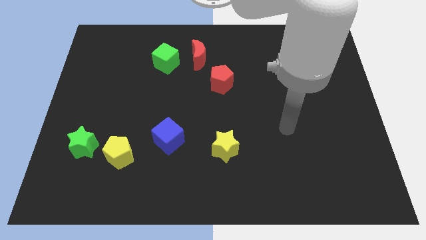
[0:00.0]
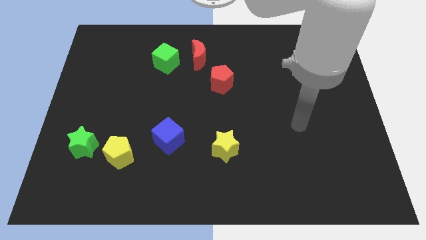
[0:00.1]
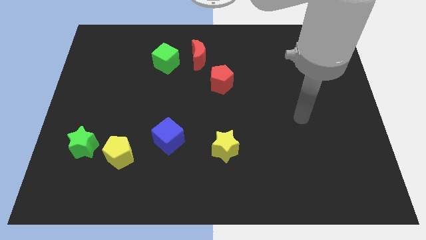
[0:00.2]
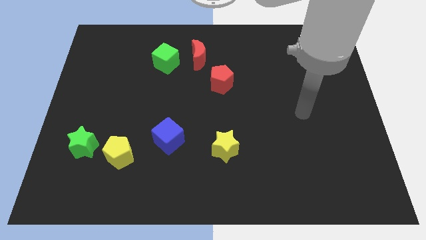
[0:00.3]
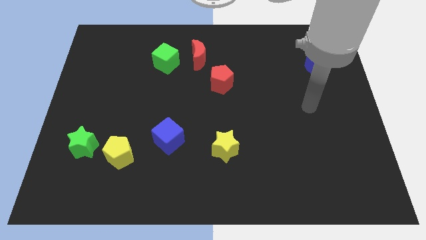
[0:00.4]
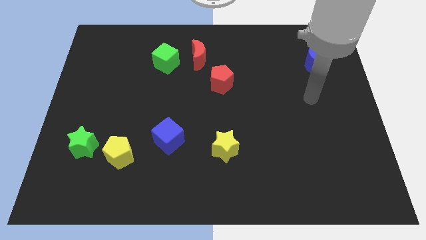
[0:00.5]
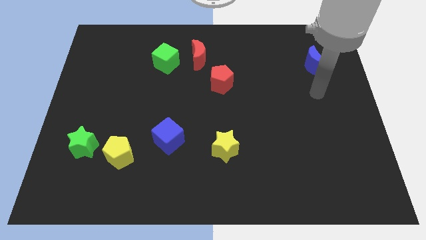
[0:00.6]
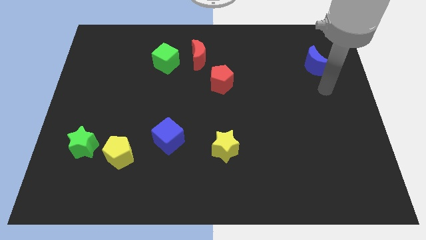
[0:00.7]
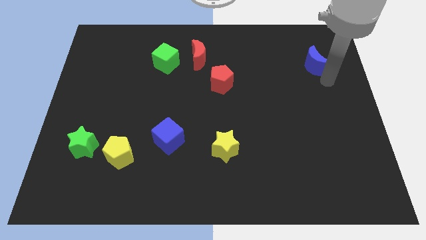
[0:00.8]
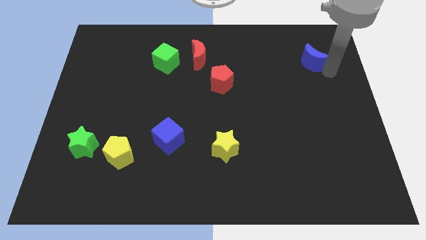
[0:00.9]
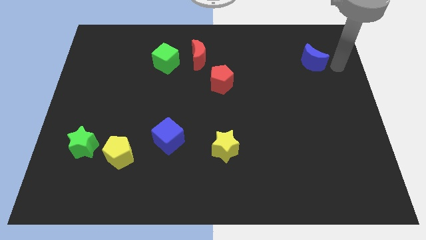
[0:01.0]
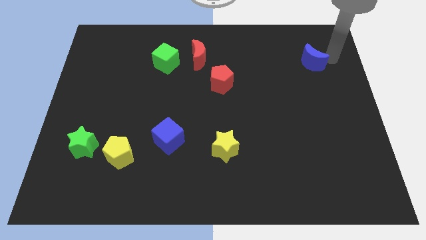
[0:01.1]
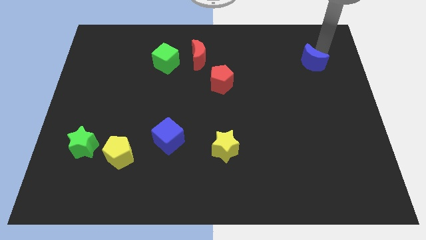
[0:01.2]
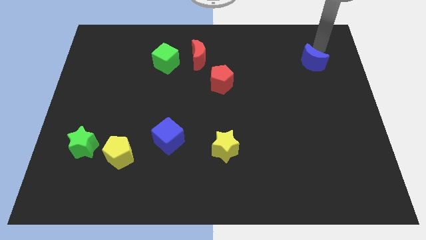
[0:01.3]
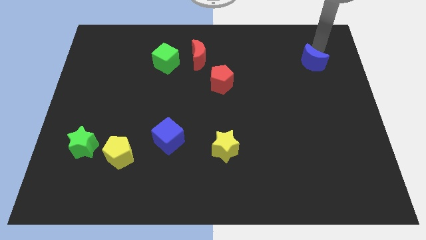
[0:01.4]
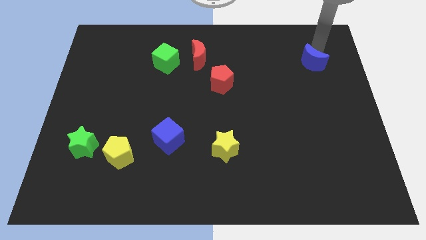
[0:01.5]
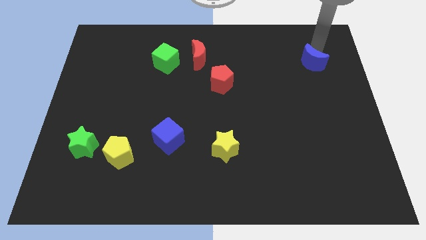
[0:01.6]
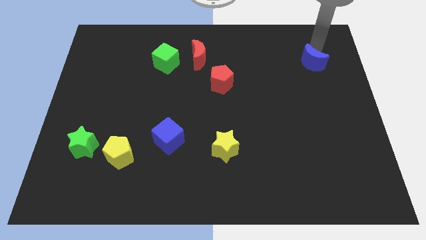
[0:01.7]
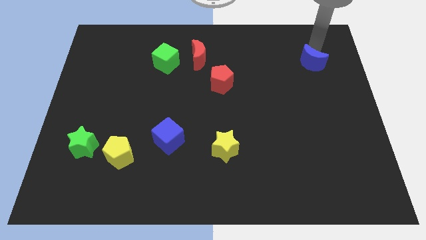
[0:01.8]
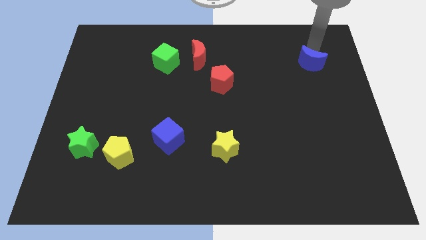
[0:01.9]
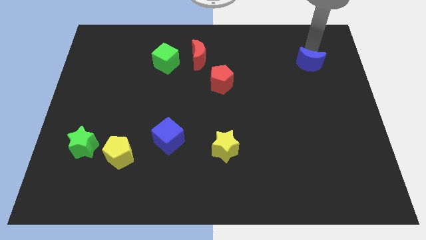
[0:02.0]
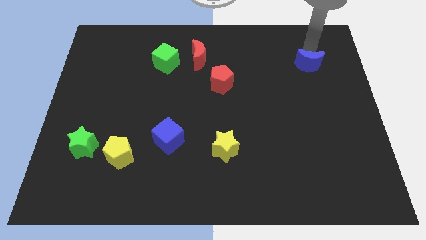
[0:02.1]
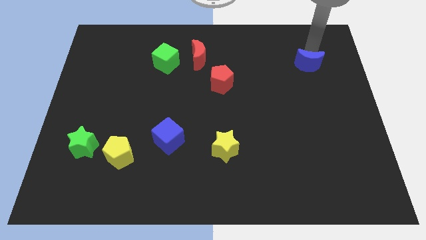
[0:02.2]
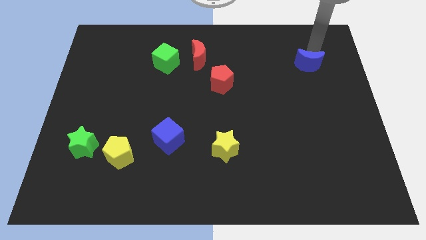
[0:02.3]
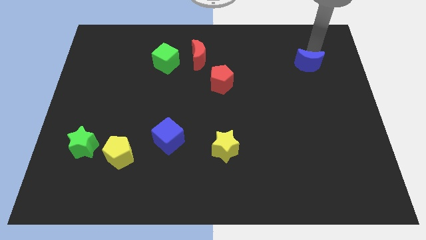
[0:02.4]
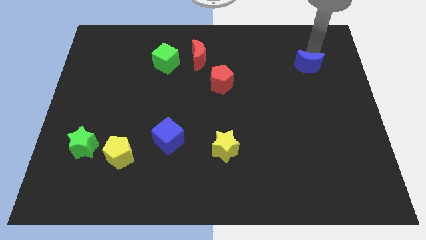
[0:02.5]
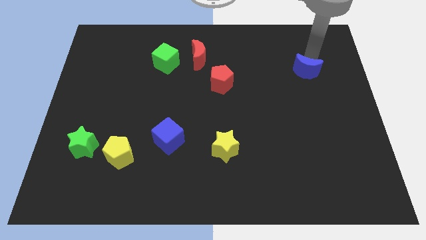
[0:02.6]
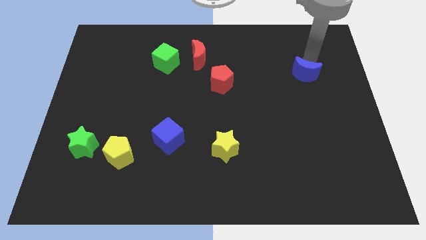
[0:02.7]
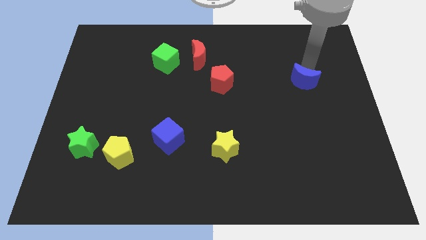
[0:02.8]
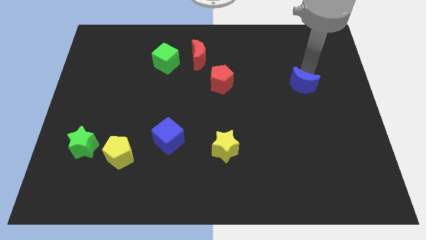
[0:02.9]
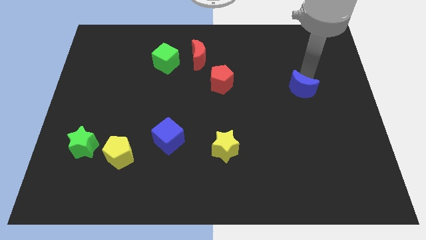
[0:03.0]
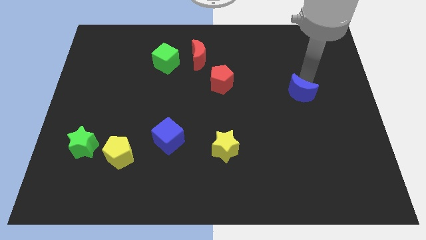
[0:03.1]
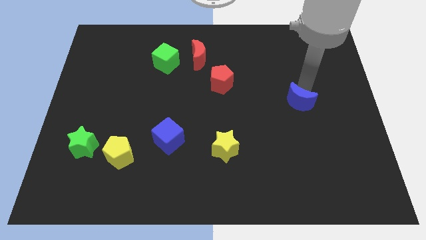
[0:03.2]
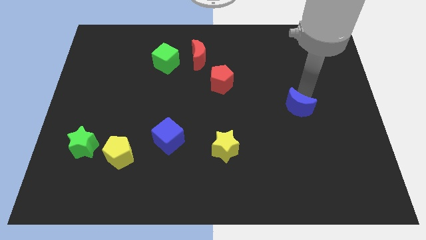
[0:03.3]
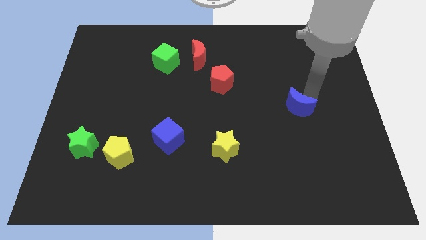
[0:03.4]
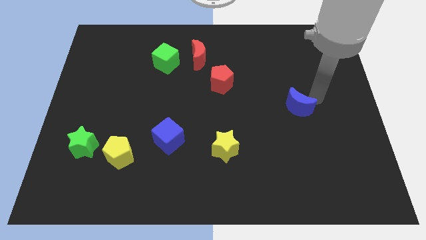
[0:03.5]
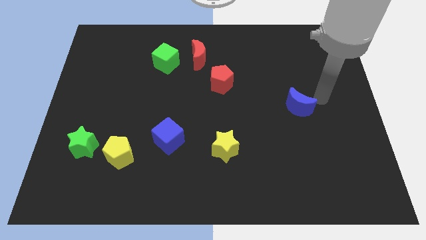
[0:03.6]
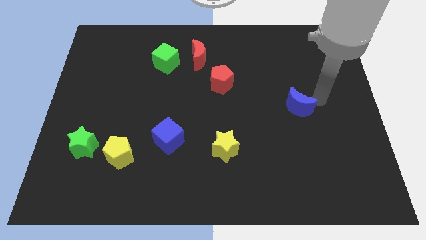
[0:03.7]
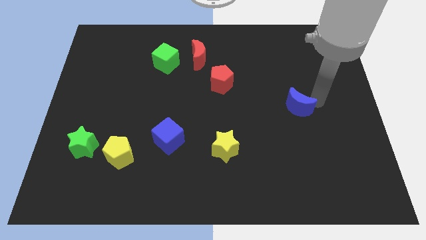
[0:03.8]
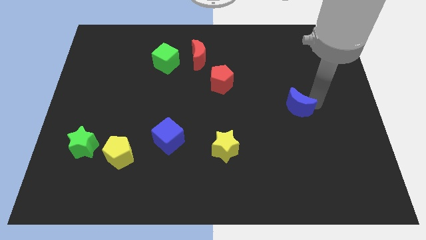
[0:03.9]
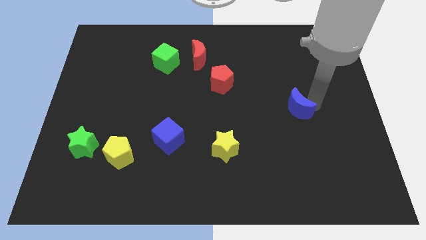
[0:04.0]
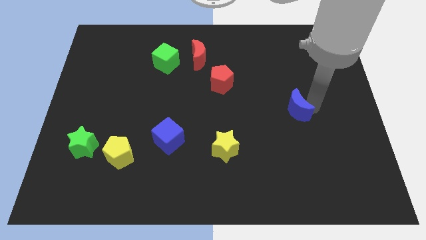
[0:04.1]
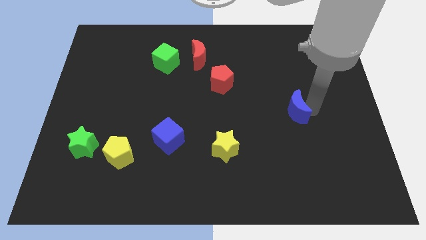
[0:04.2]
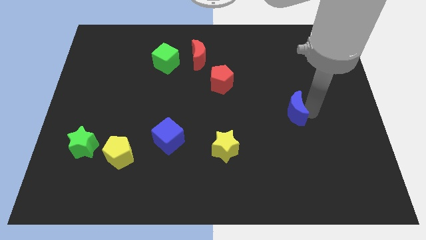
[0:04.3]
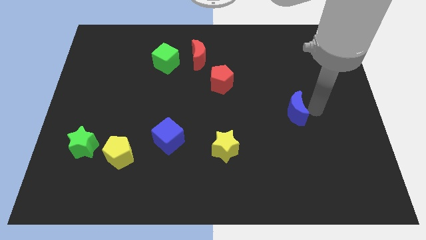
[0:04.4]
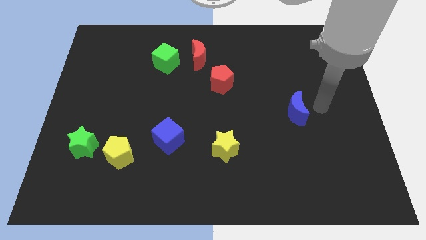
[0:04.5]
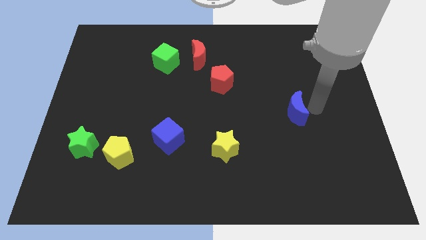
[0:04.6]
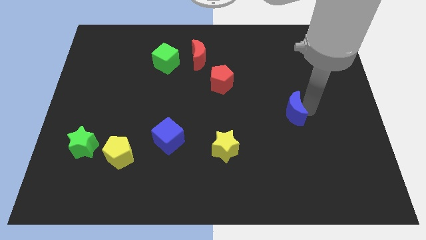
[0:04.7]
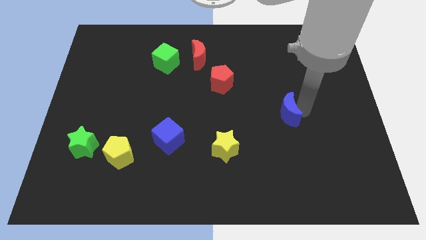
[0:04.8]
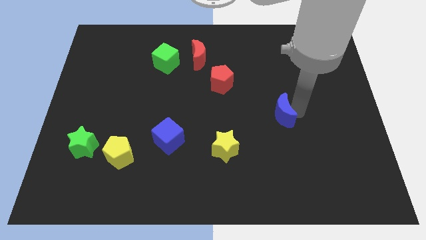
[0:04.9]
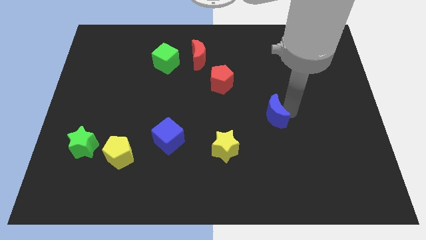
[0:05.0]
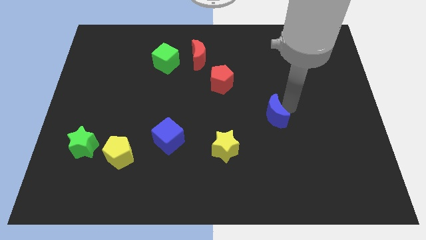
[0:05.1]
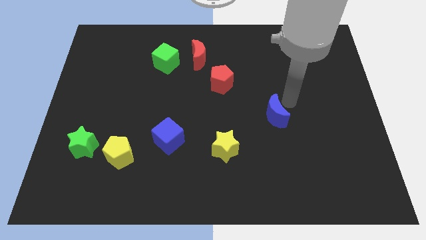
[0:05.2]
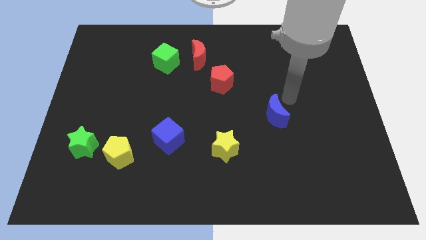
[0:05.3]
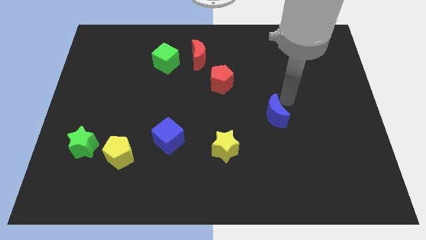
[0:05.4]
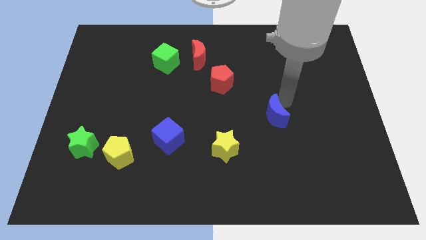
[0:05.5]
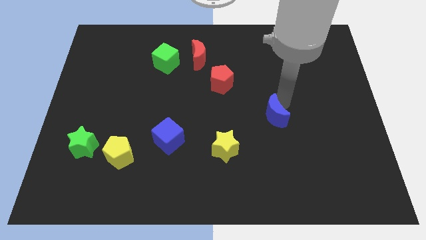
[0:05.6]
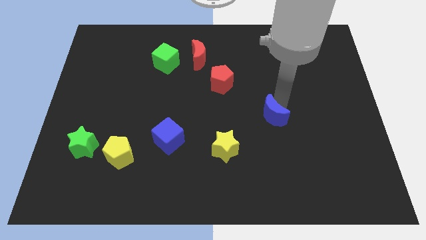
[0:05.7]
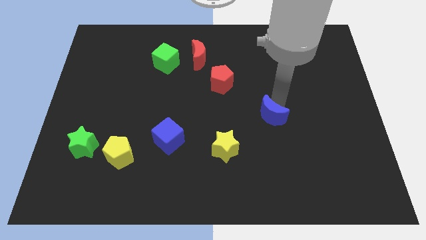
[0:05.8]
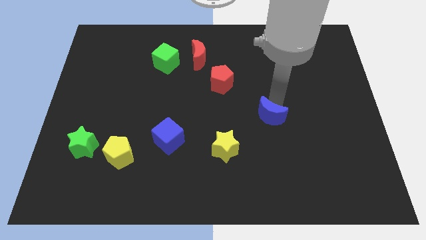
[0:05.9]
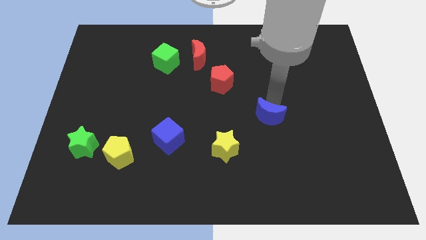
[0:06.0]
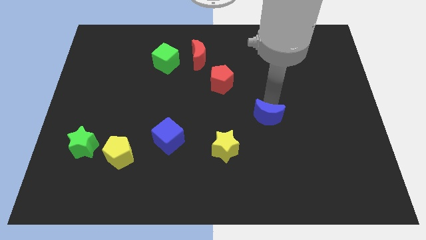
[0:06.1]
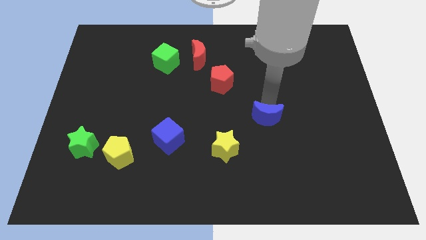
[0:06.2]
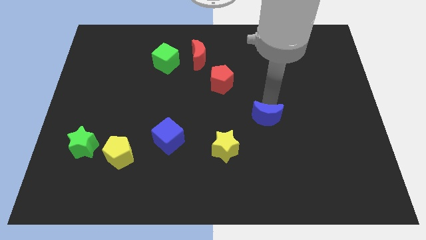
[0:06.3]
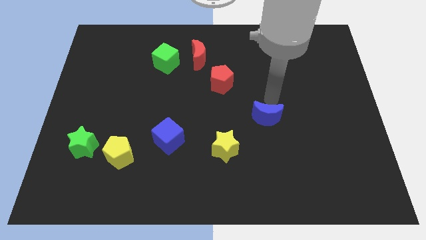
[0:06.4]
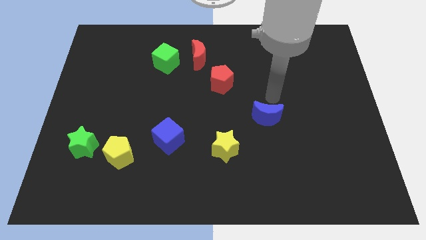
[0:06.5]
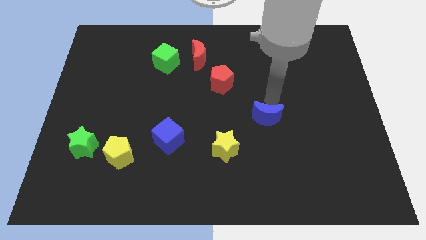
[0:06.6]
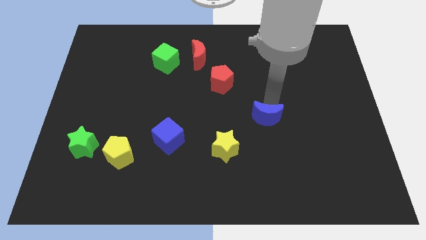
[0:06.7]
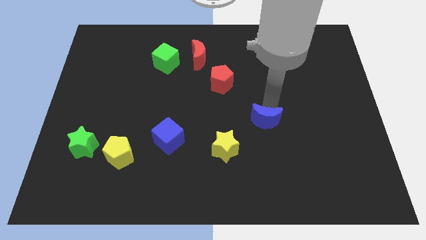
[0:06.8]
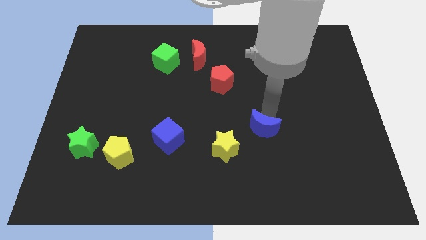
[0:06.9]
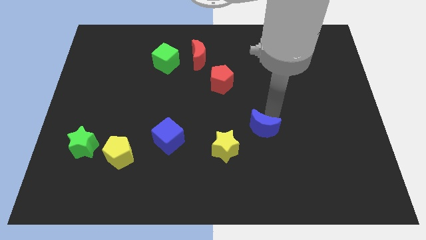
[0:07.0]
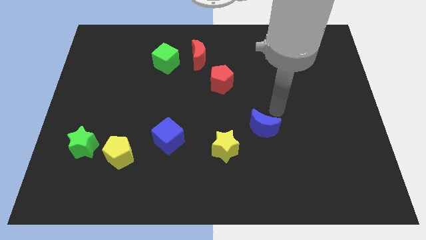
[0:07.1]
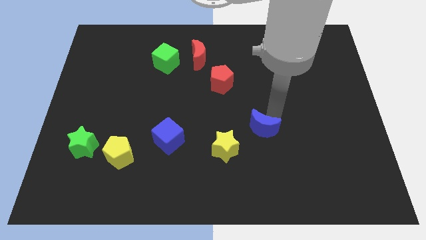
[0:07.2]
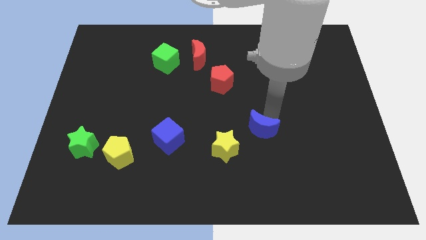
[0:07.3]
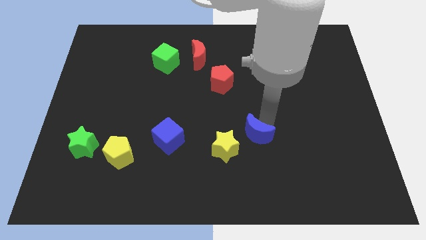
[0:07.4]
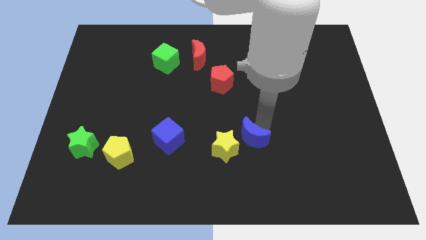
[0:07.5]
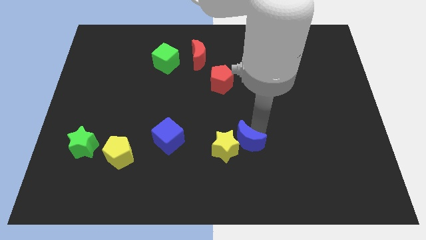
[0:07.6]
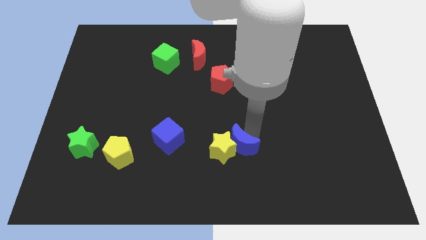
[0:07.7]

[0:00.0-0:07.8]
move the blue moon to the bottom right of the yellow star
